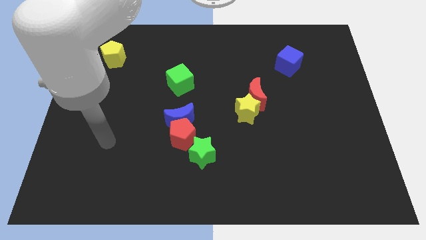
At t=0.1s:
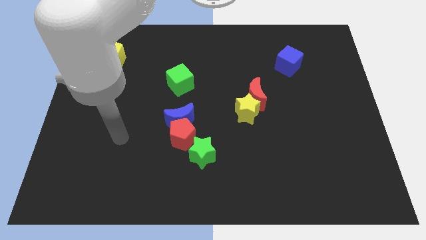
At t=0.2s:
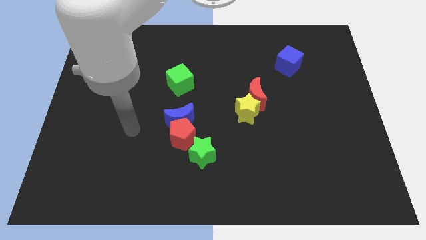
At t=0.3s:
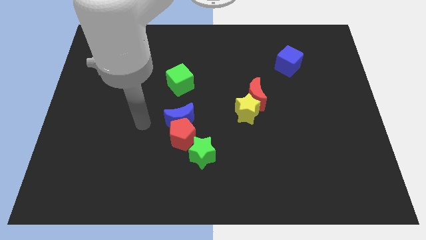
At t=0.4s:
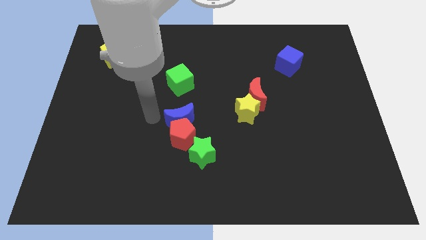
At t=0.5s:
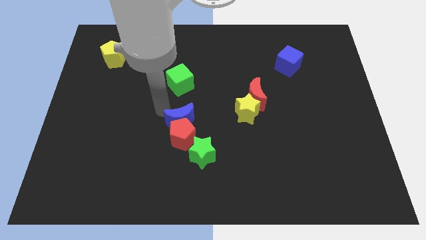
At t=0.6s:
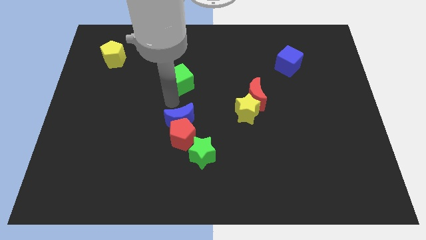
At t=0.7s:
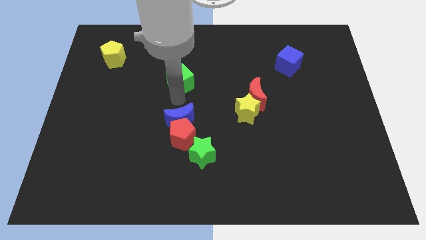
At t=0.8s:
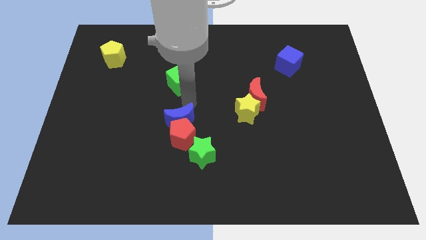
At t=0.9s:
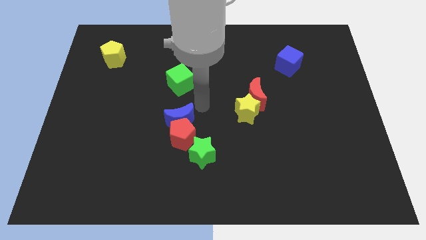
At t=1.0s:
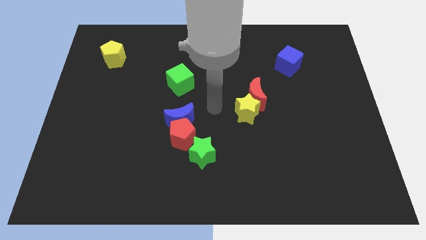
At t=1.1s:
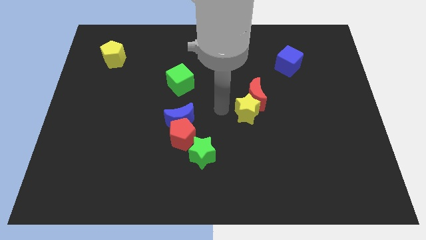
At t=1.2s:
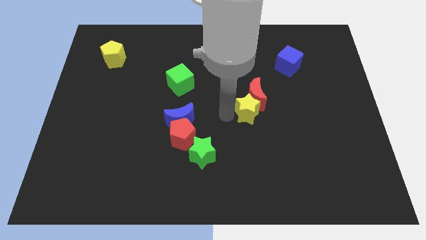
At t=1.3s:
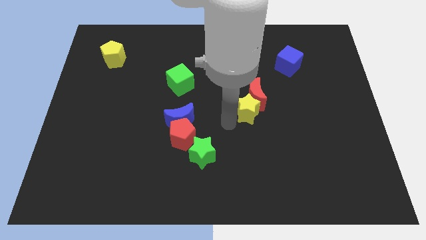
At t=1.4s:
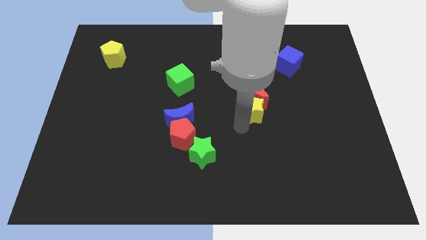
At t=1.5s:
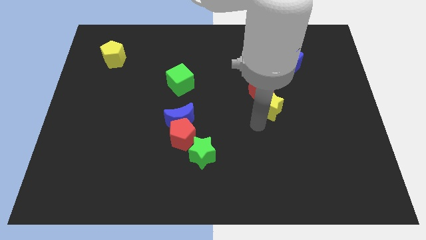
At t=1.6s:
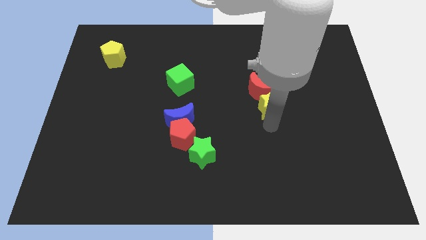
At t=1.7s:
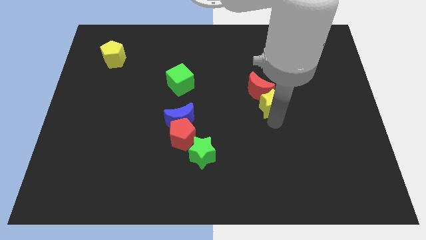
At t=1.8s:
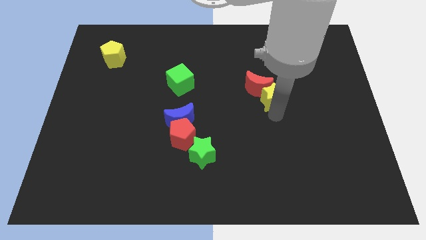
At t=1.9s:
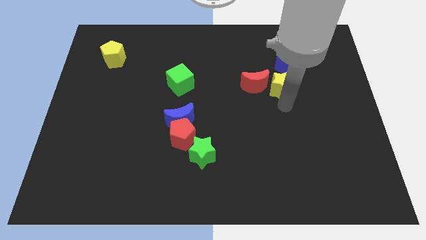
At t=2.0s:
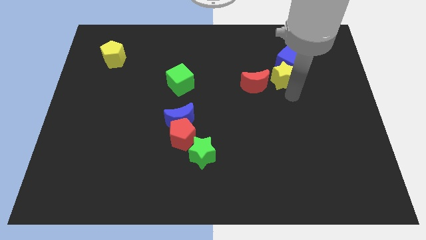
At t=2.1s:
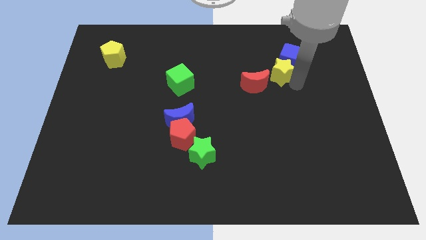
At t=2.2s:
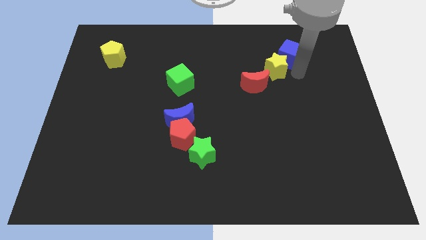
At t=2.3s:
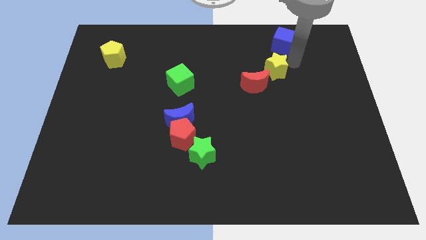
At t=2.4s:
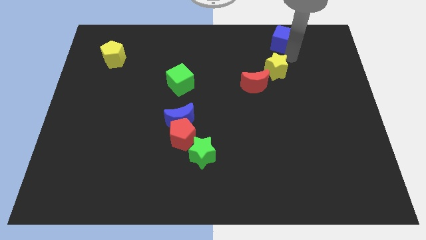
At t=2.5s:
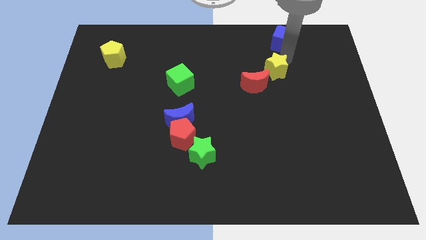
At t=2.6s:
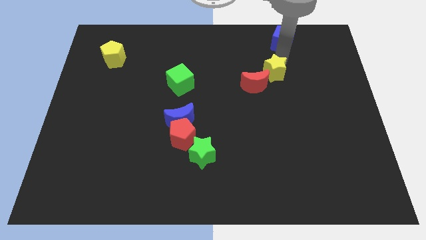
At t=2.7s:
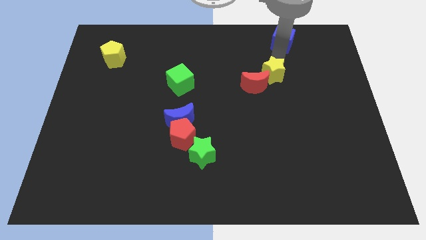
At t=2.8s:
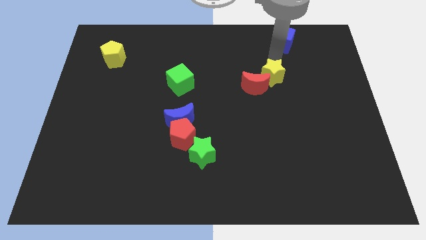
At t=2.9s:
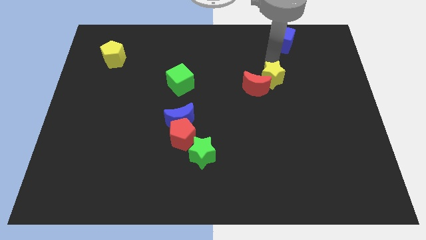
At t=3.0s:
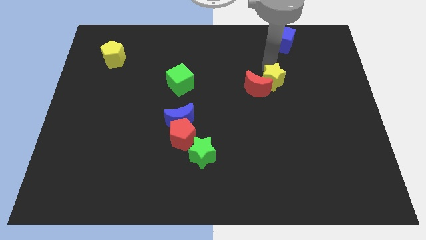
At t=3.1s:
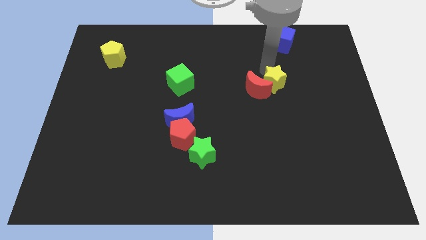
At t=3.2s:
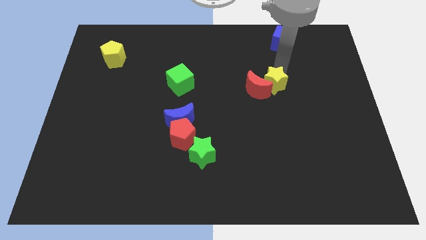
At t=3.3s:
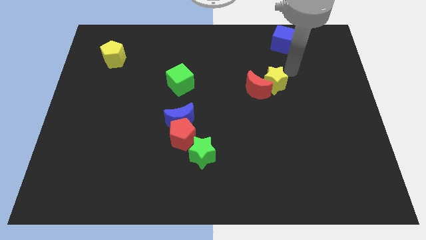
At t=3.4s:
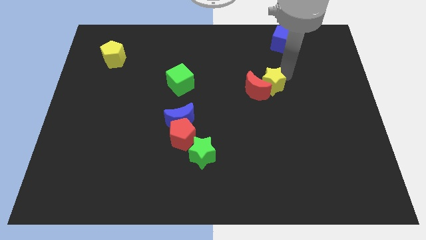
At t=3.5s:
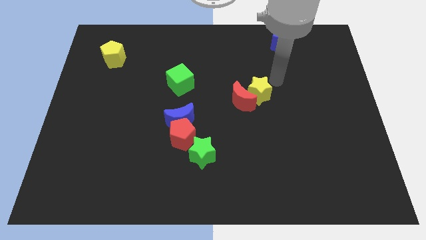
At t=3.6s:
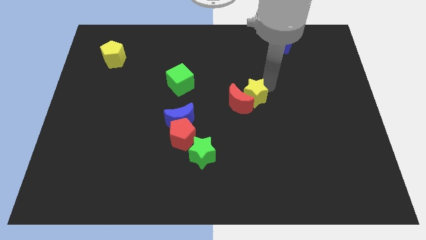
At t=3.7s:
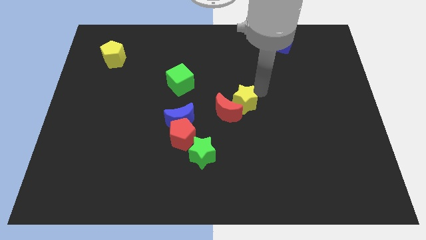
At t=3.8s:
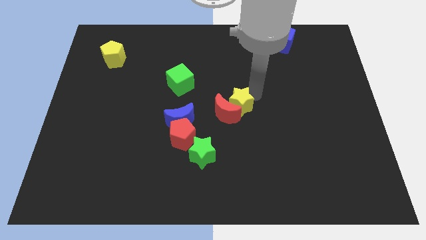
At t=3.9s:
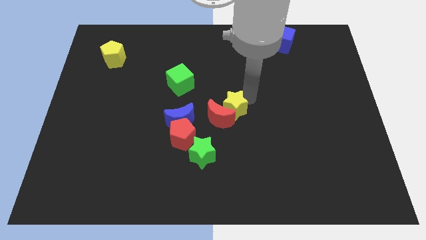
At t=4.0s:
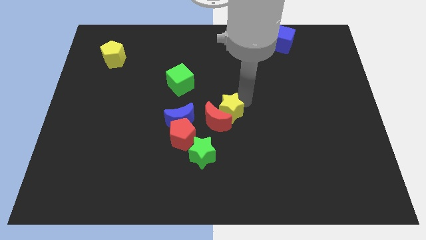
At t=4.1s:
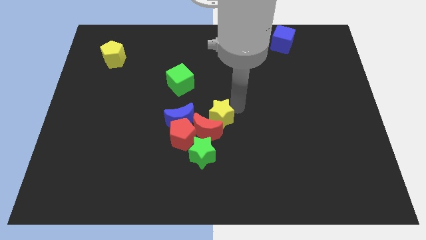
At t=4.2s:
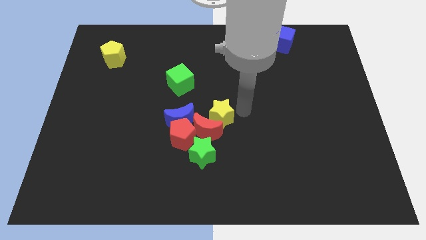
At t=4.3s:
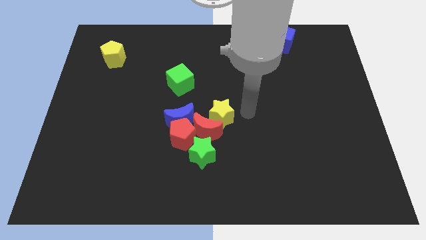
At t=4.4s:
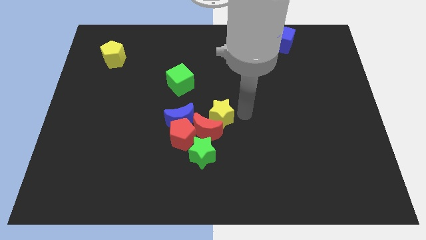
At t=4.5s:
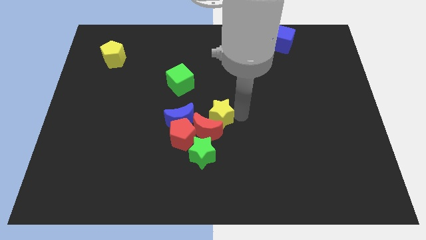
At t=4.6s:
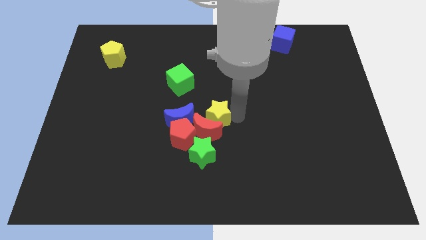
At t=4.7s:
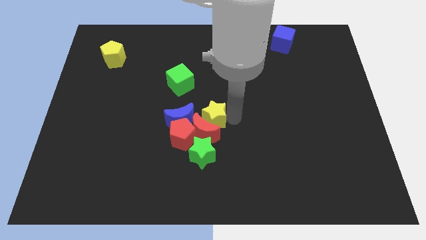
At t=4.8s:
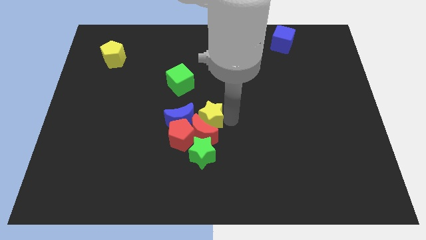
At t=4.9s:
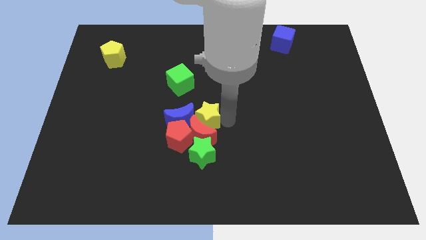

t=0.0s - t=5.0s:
put the yellow star next to the blue moon

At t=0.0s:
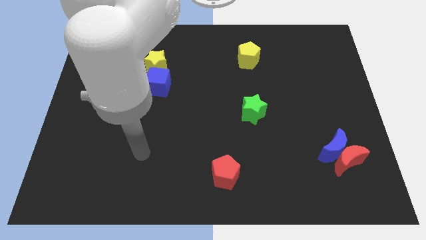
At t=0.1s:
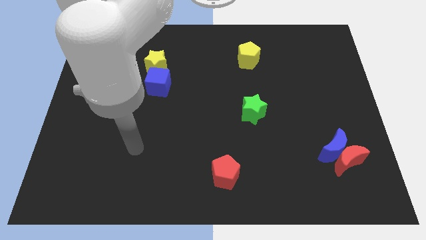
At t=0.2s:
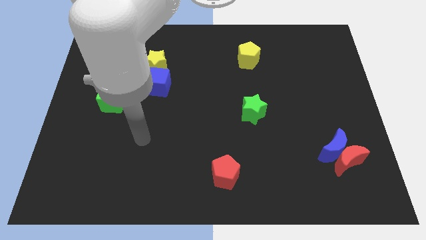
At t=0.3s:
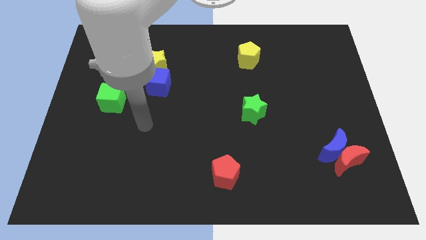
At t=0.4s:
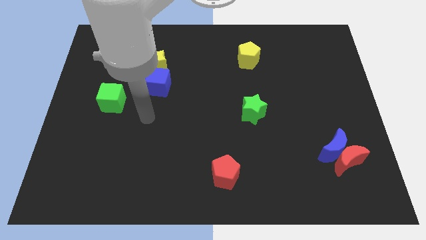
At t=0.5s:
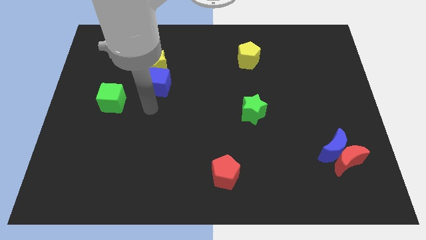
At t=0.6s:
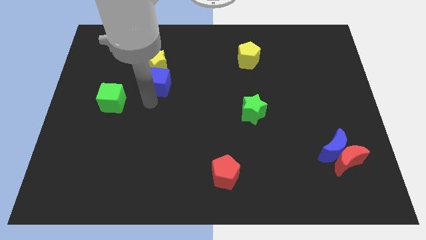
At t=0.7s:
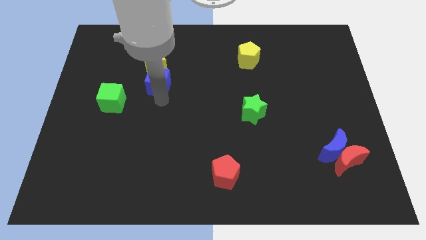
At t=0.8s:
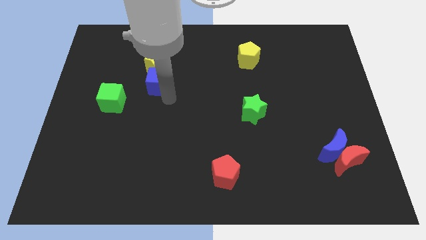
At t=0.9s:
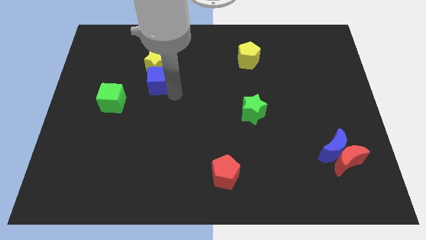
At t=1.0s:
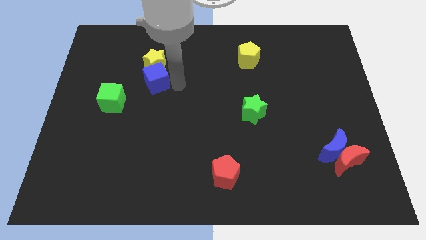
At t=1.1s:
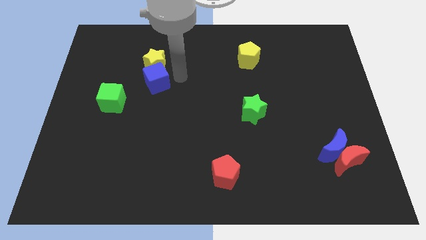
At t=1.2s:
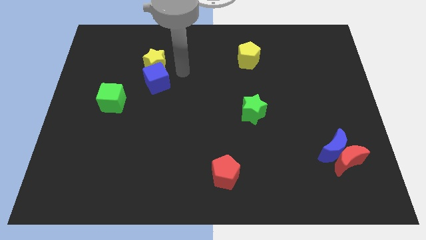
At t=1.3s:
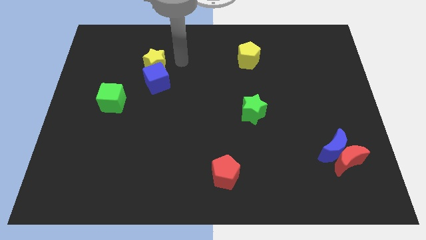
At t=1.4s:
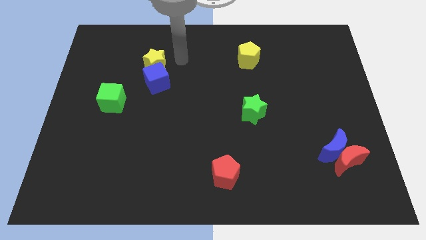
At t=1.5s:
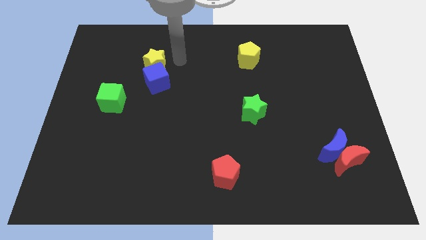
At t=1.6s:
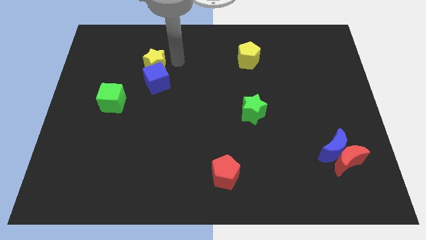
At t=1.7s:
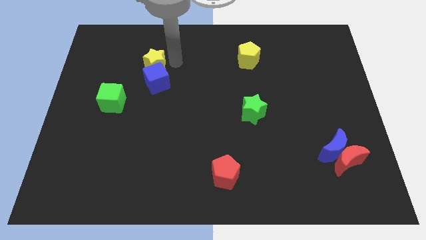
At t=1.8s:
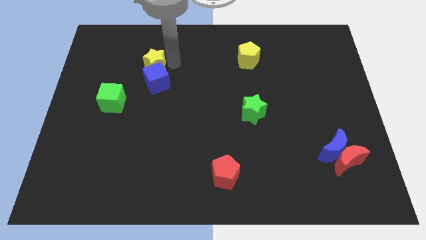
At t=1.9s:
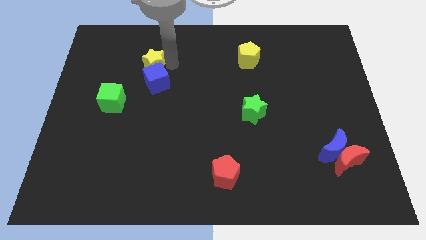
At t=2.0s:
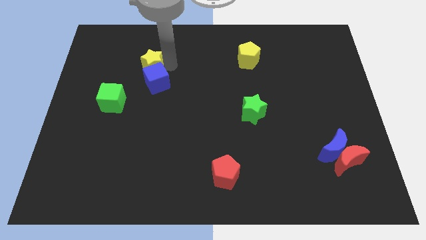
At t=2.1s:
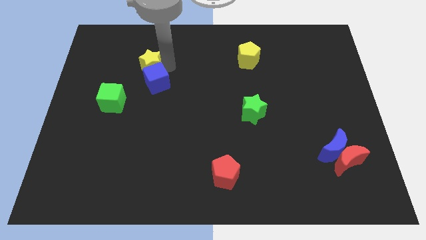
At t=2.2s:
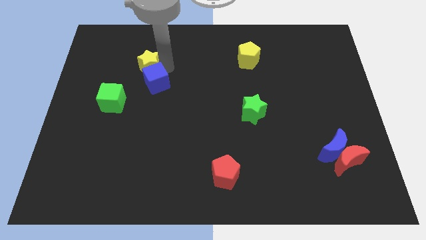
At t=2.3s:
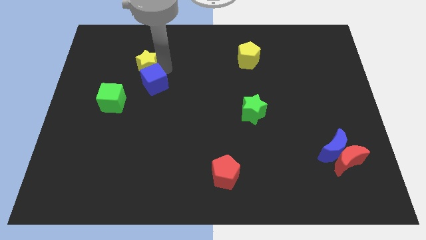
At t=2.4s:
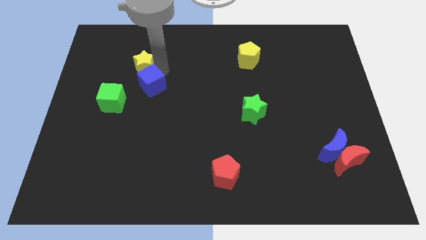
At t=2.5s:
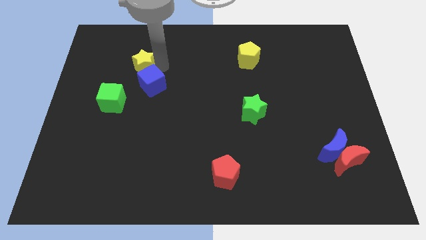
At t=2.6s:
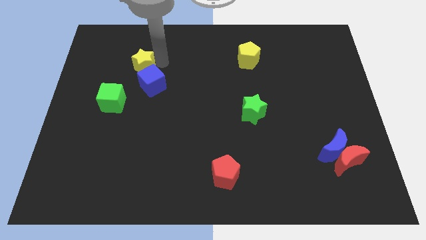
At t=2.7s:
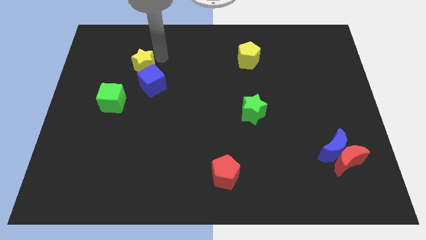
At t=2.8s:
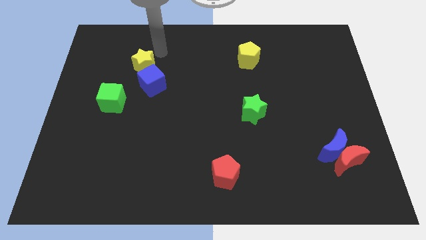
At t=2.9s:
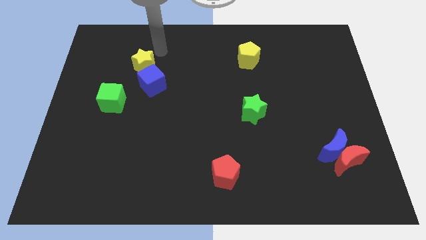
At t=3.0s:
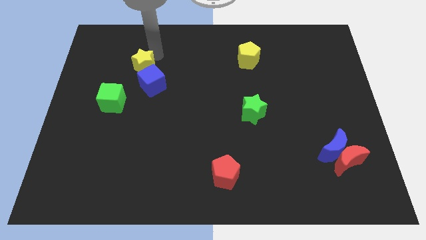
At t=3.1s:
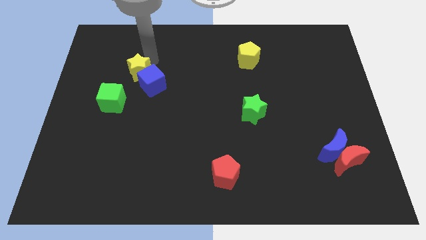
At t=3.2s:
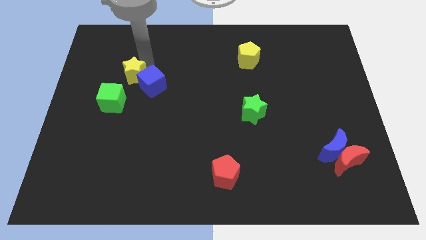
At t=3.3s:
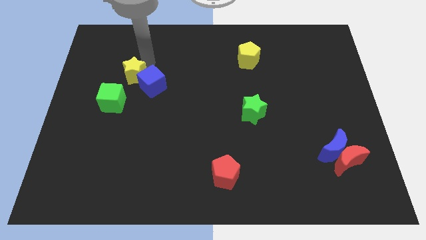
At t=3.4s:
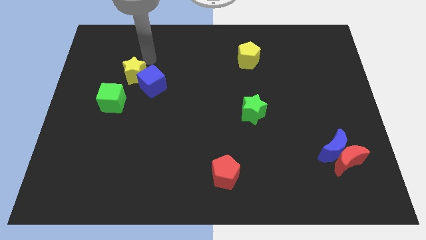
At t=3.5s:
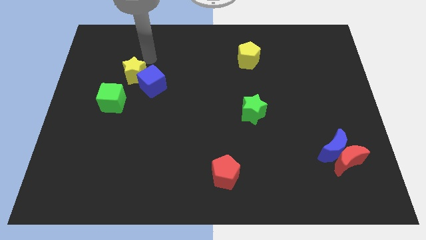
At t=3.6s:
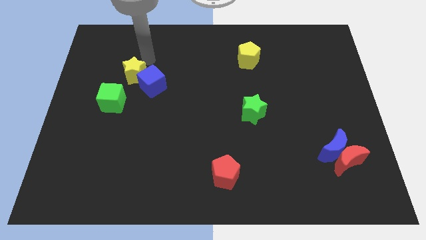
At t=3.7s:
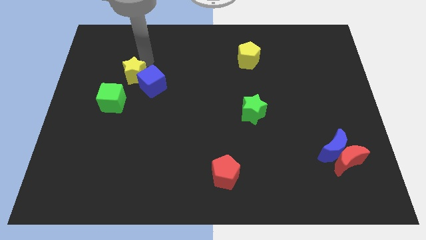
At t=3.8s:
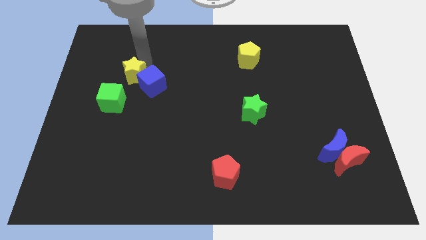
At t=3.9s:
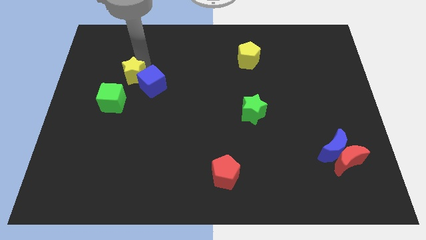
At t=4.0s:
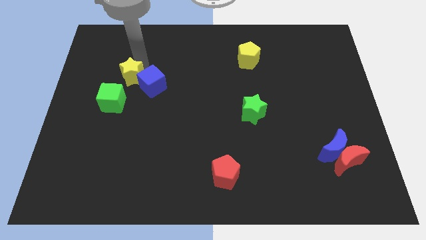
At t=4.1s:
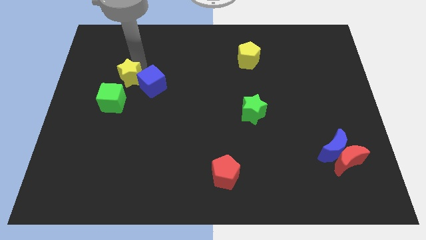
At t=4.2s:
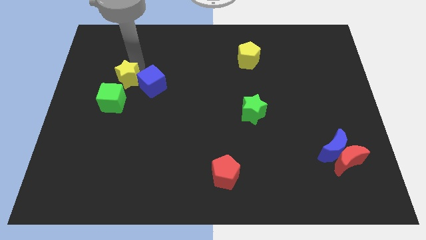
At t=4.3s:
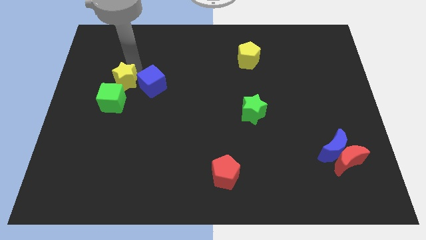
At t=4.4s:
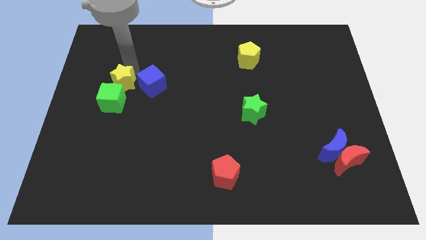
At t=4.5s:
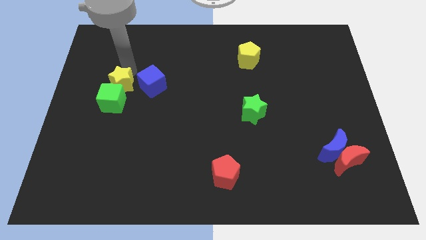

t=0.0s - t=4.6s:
put the yellow star to the green cube
